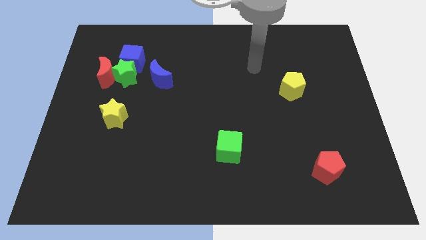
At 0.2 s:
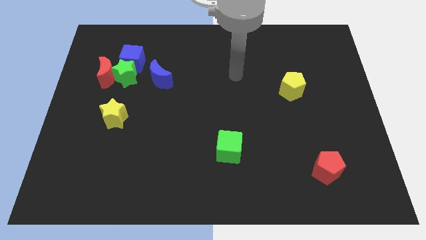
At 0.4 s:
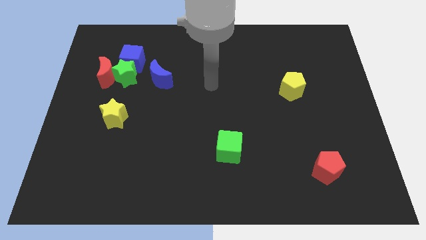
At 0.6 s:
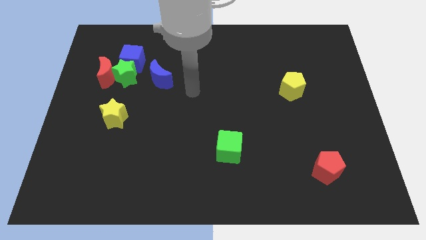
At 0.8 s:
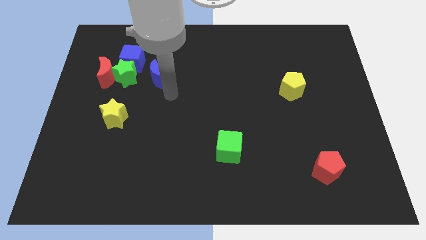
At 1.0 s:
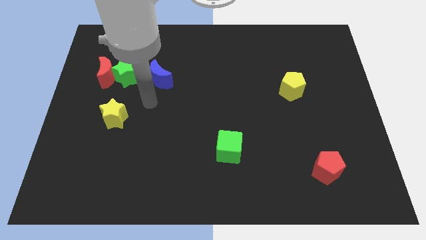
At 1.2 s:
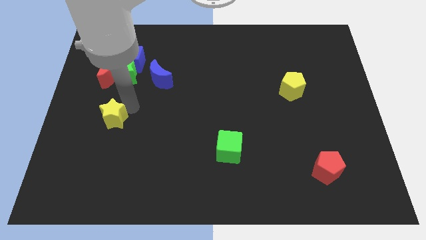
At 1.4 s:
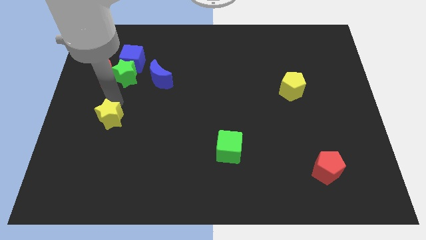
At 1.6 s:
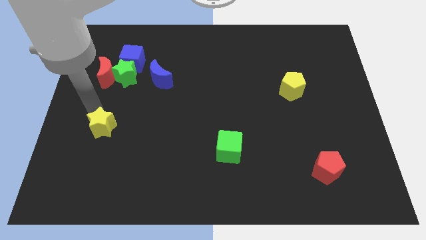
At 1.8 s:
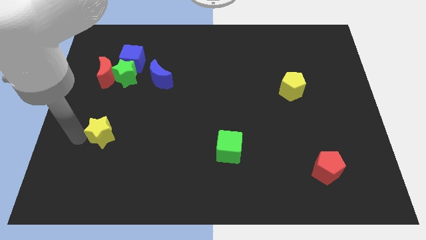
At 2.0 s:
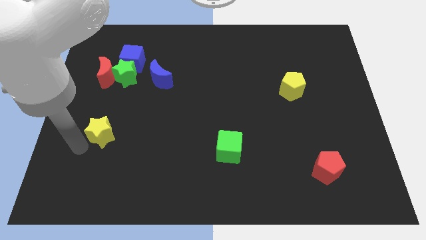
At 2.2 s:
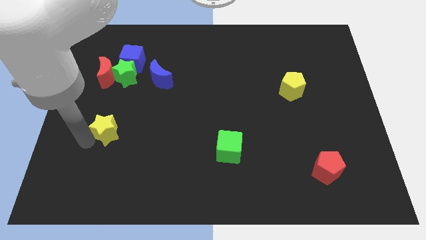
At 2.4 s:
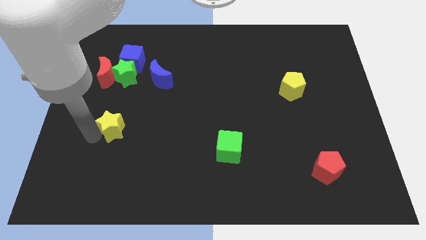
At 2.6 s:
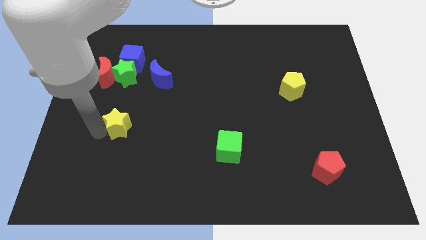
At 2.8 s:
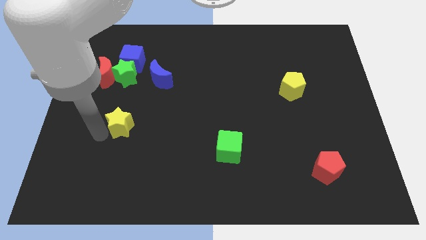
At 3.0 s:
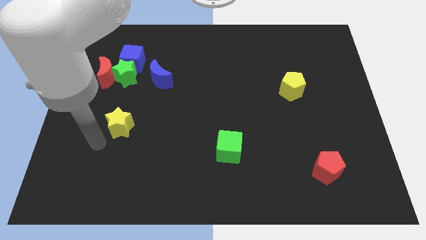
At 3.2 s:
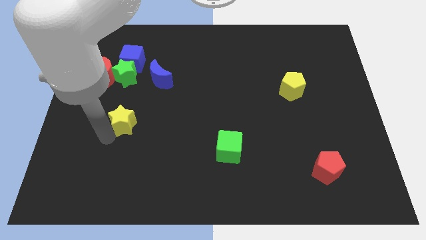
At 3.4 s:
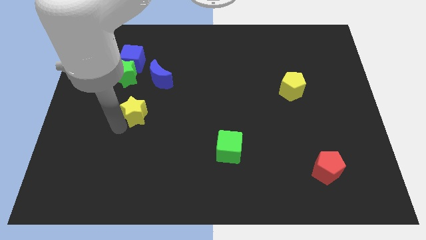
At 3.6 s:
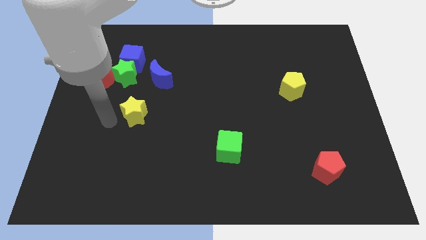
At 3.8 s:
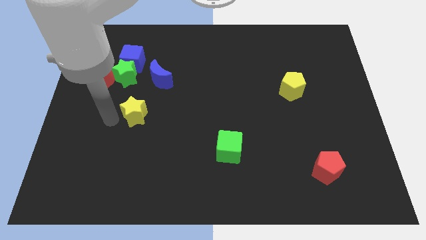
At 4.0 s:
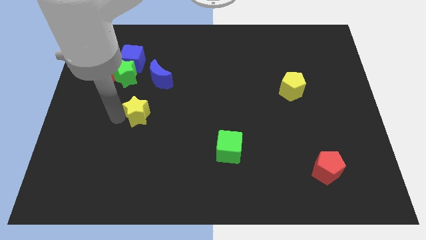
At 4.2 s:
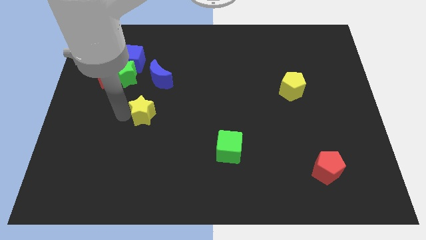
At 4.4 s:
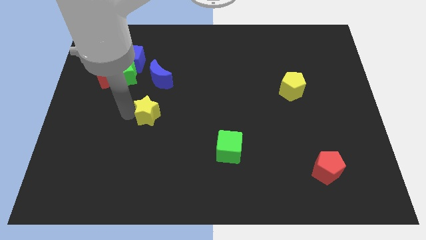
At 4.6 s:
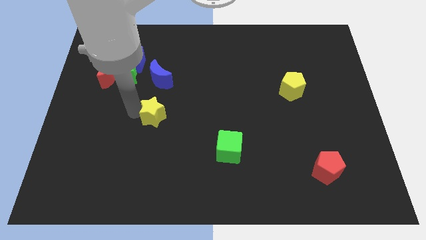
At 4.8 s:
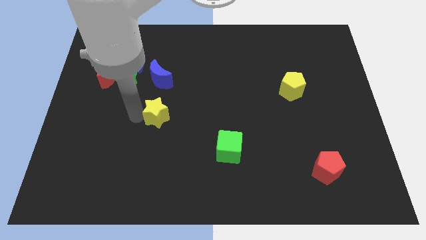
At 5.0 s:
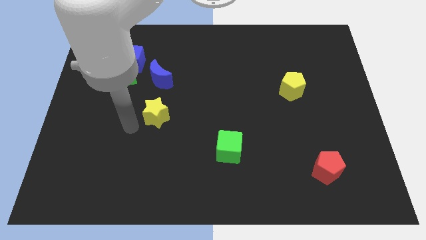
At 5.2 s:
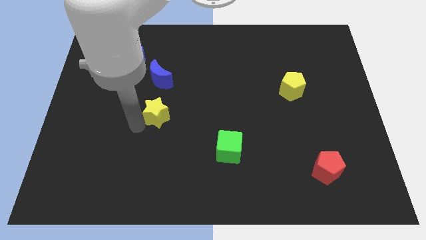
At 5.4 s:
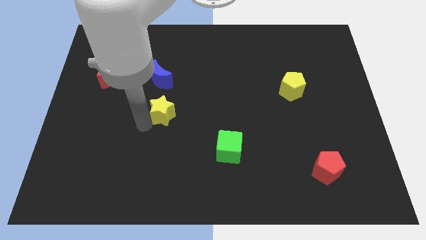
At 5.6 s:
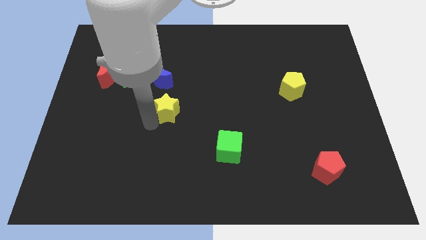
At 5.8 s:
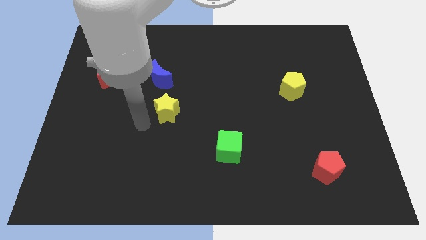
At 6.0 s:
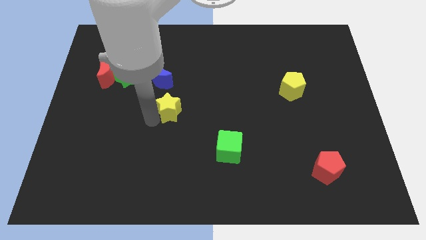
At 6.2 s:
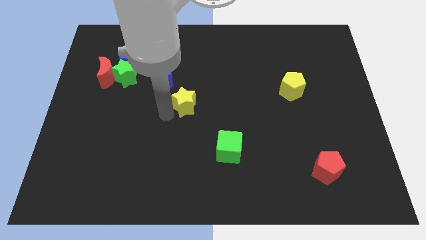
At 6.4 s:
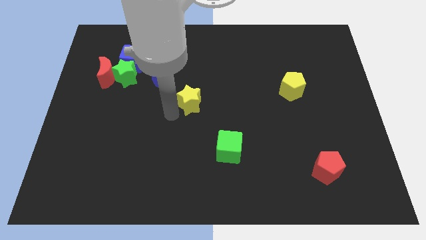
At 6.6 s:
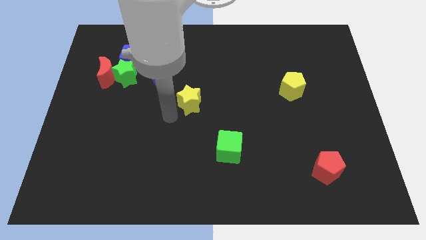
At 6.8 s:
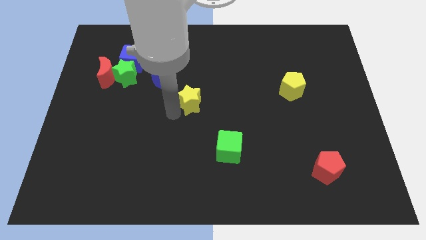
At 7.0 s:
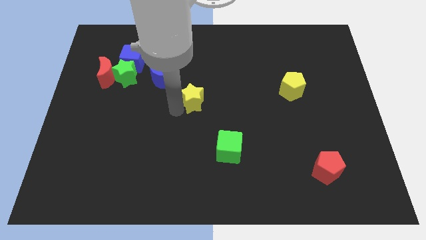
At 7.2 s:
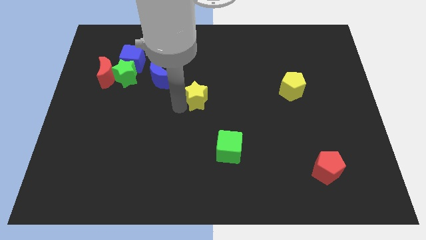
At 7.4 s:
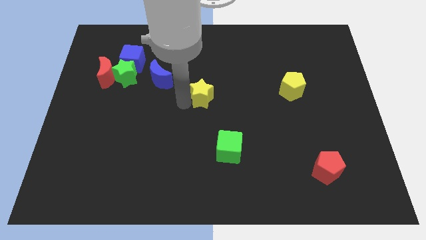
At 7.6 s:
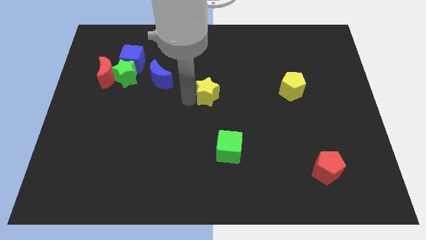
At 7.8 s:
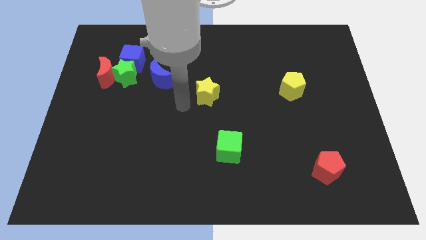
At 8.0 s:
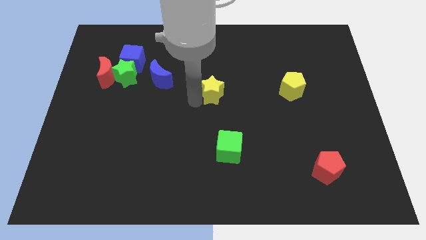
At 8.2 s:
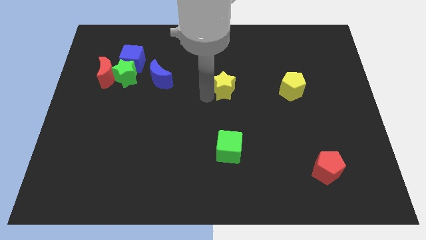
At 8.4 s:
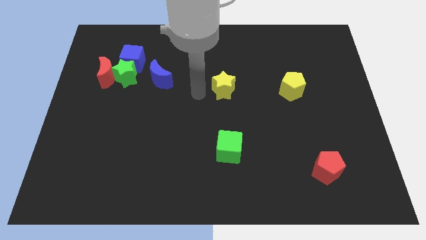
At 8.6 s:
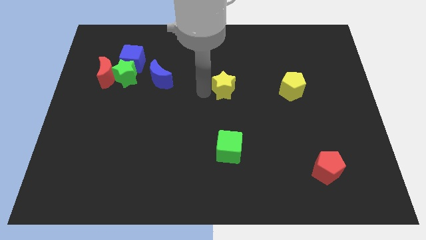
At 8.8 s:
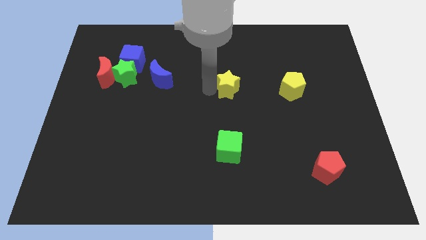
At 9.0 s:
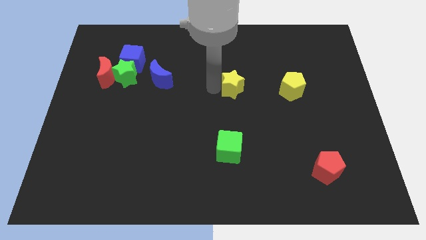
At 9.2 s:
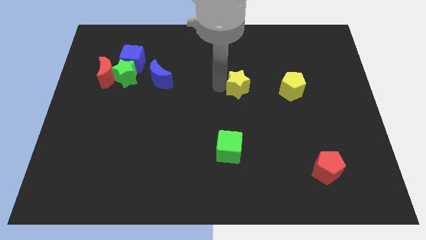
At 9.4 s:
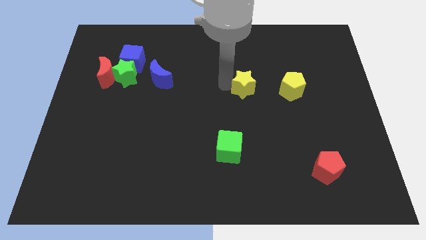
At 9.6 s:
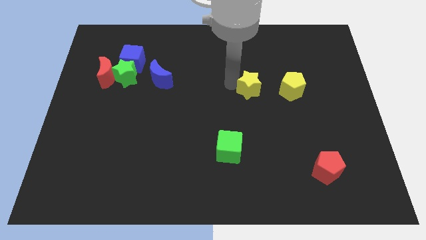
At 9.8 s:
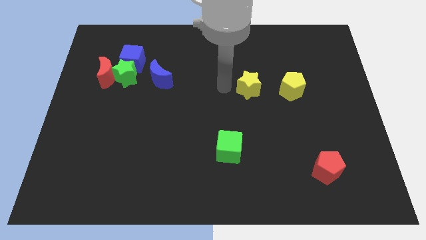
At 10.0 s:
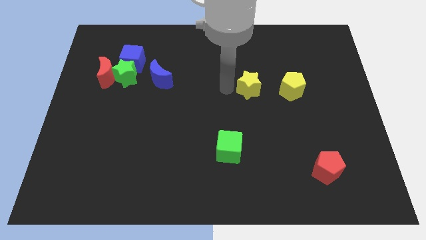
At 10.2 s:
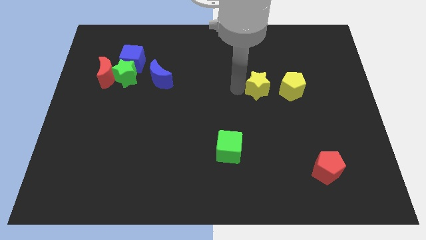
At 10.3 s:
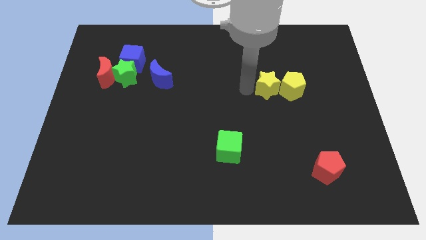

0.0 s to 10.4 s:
move the yellow star towards the yellow pentagon

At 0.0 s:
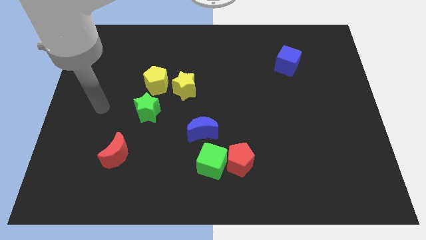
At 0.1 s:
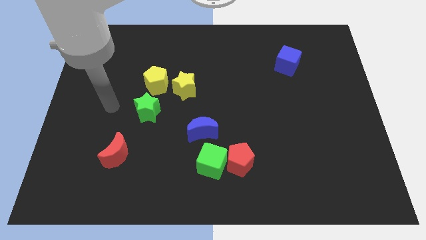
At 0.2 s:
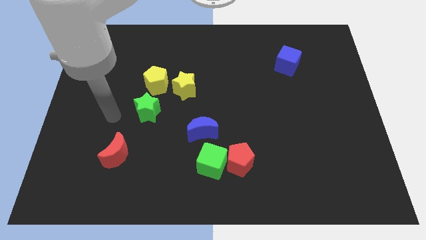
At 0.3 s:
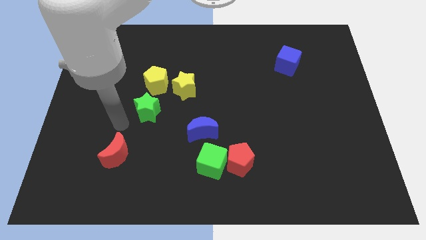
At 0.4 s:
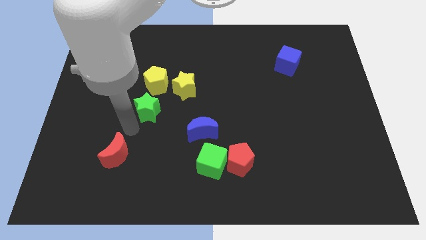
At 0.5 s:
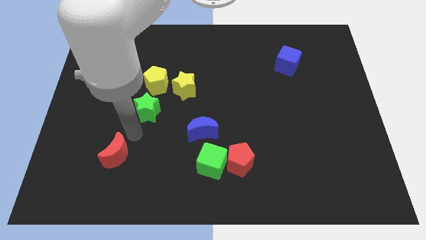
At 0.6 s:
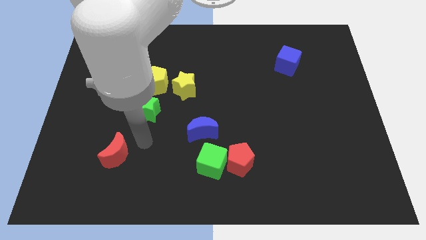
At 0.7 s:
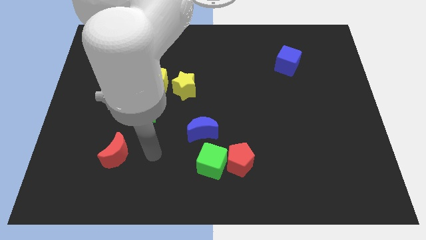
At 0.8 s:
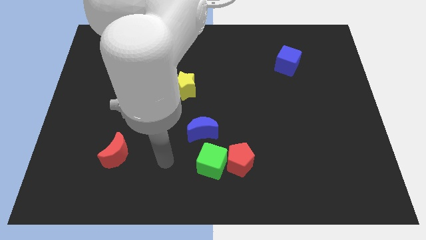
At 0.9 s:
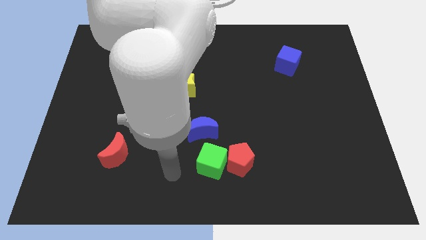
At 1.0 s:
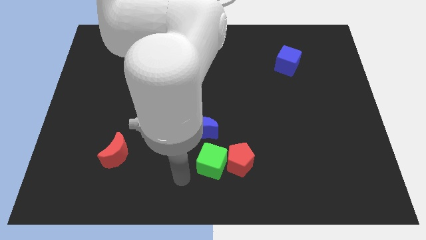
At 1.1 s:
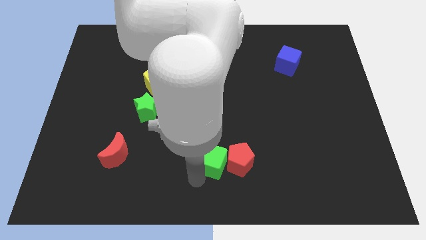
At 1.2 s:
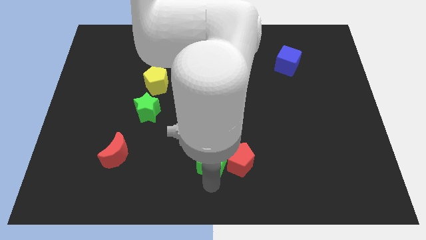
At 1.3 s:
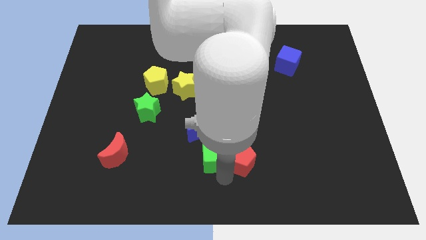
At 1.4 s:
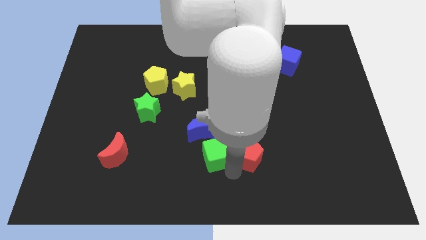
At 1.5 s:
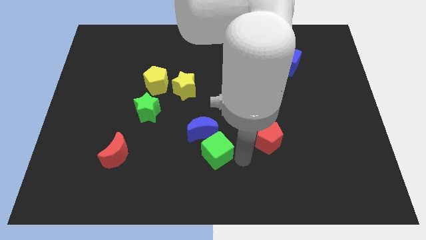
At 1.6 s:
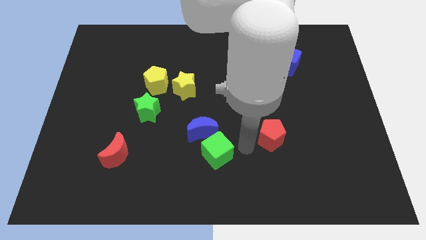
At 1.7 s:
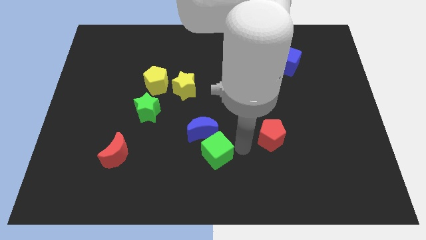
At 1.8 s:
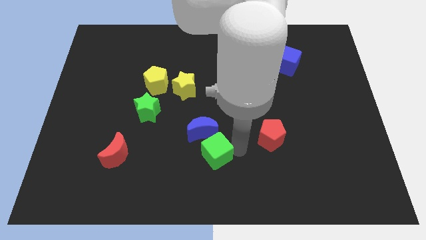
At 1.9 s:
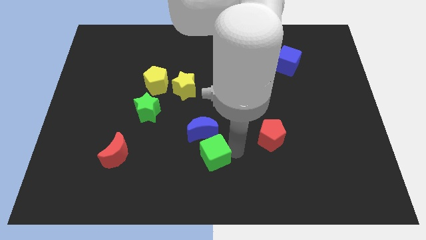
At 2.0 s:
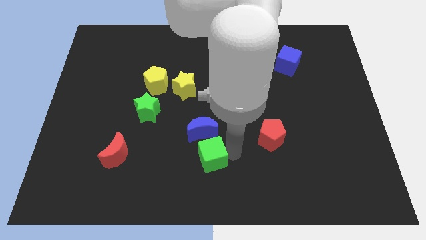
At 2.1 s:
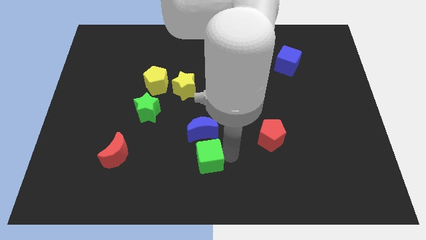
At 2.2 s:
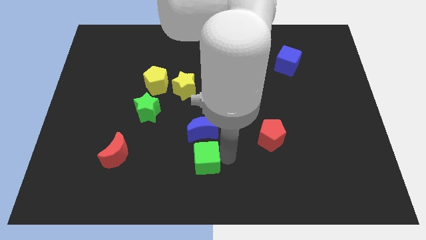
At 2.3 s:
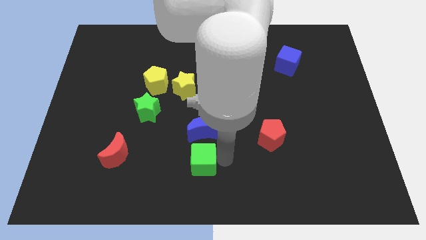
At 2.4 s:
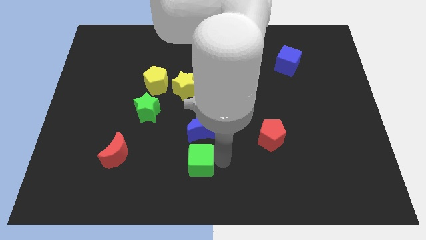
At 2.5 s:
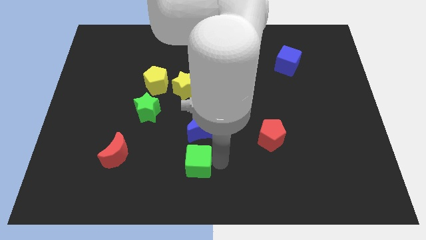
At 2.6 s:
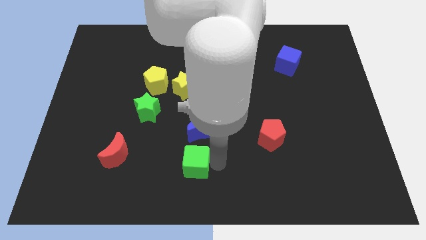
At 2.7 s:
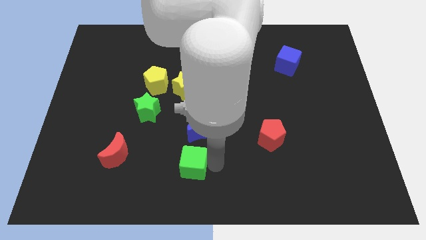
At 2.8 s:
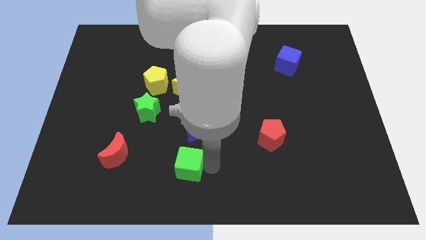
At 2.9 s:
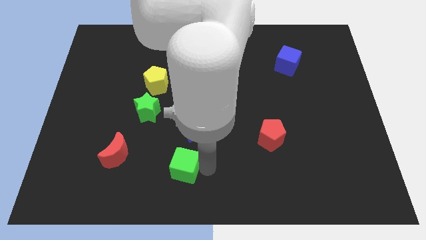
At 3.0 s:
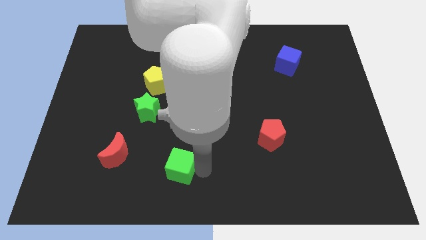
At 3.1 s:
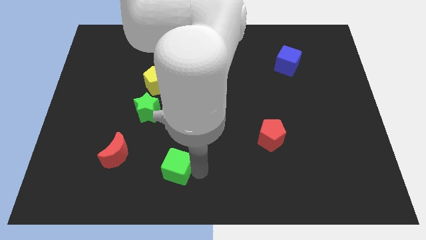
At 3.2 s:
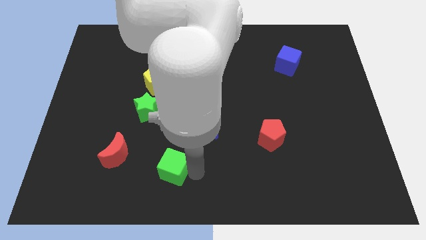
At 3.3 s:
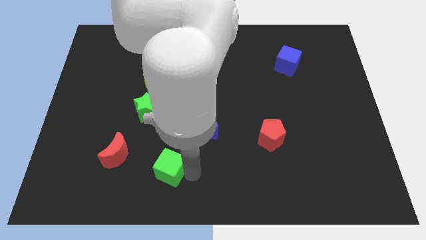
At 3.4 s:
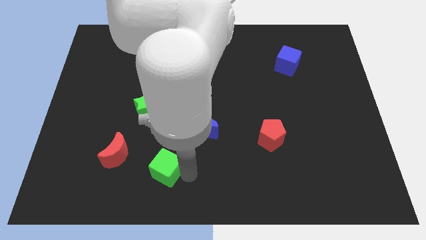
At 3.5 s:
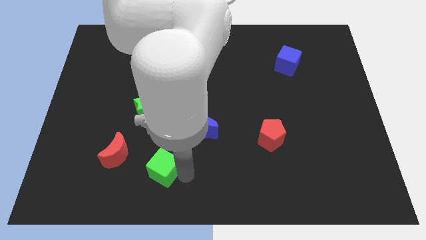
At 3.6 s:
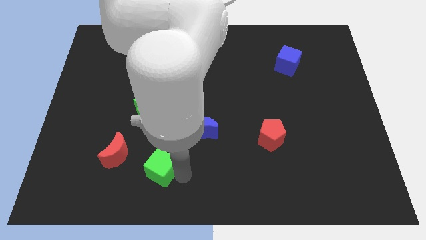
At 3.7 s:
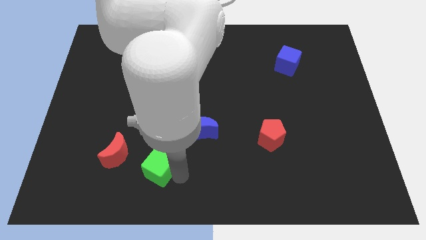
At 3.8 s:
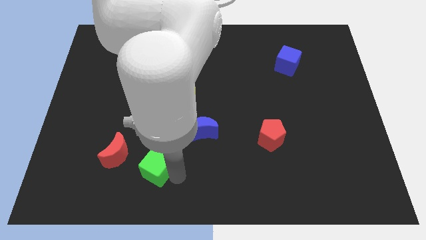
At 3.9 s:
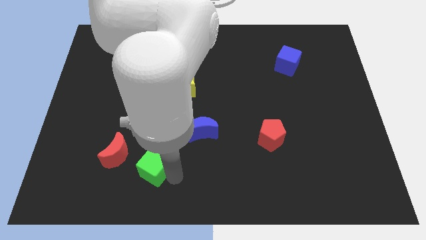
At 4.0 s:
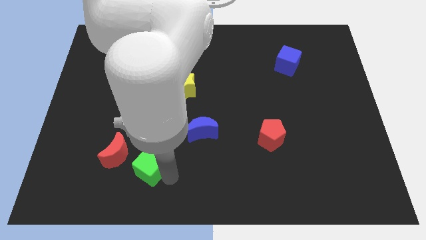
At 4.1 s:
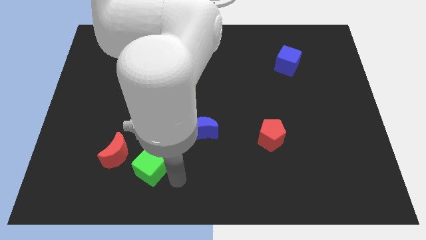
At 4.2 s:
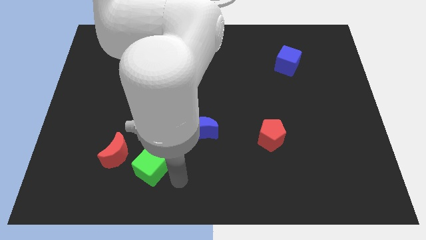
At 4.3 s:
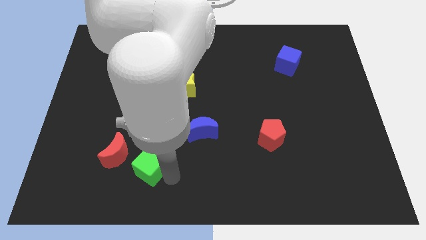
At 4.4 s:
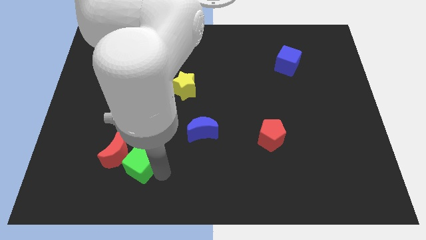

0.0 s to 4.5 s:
slide the green cube to the red moon
